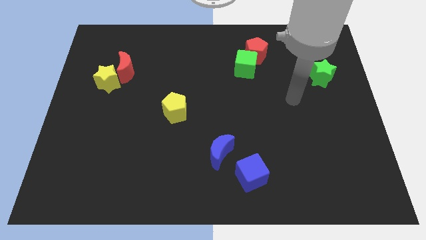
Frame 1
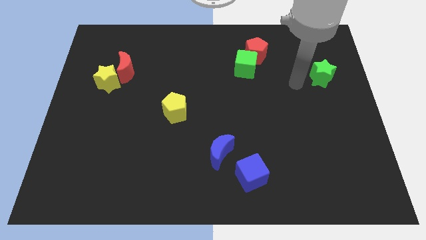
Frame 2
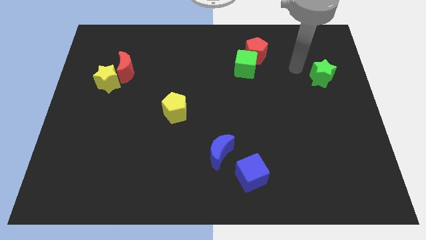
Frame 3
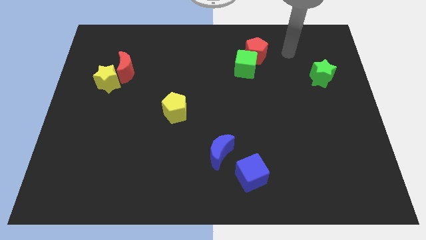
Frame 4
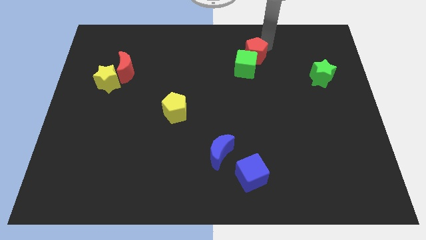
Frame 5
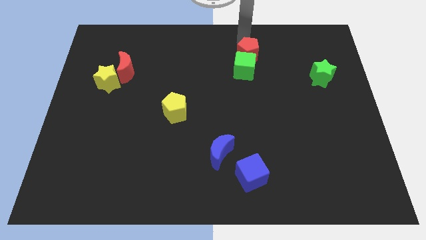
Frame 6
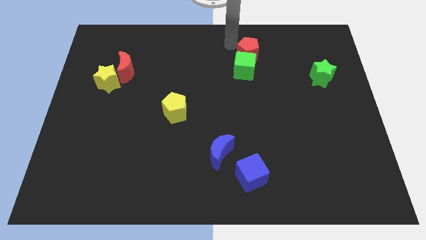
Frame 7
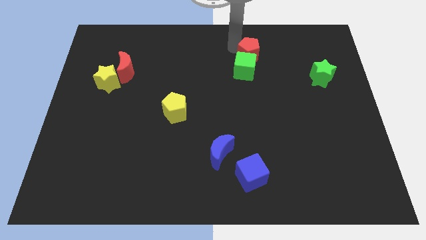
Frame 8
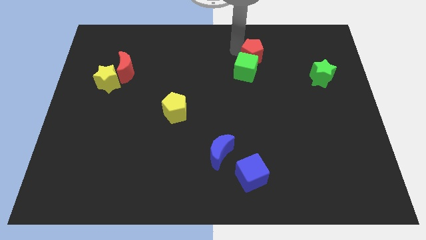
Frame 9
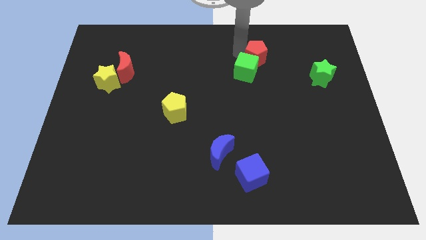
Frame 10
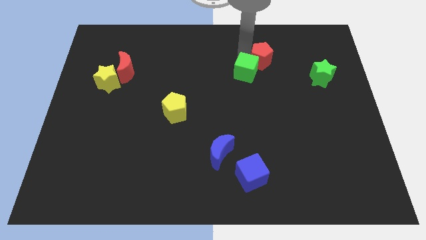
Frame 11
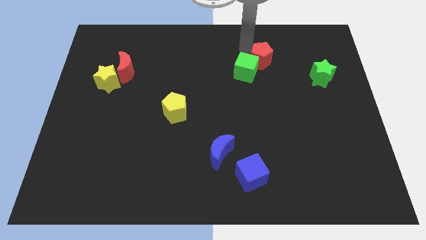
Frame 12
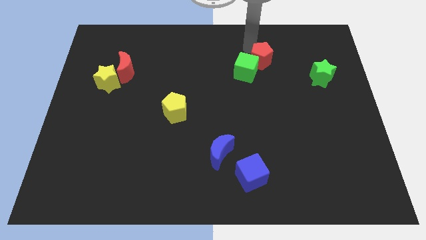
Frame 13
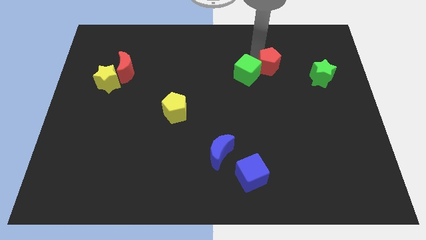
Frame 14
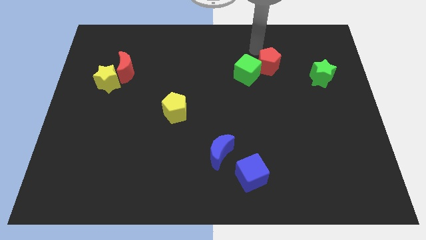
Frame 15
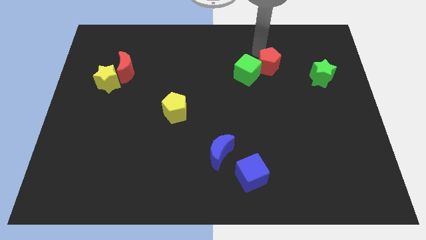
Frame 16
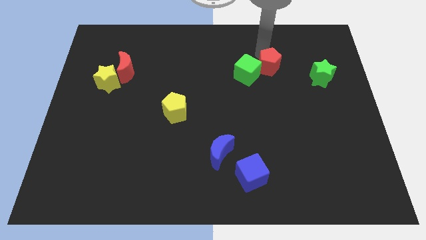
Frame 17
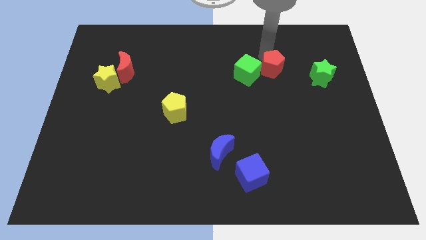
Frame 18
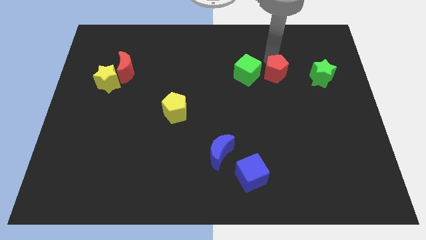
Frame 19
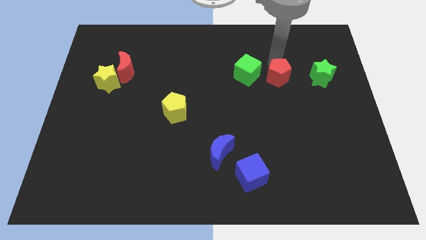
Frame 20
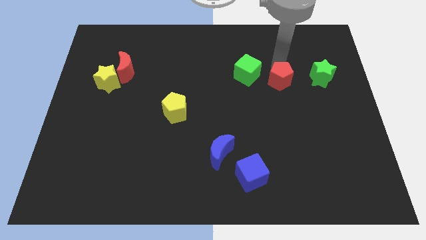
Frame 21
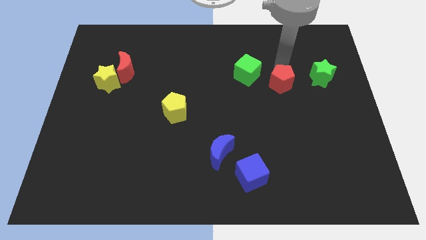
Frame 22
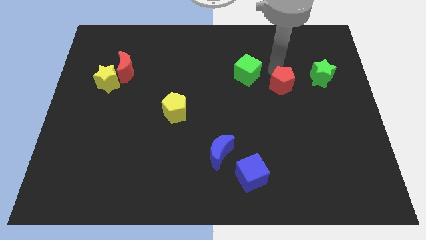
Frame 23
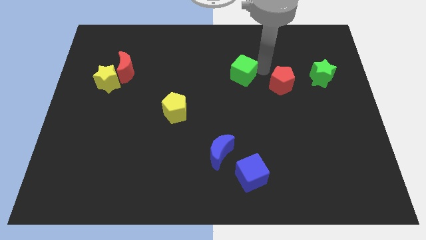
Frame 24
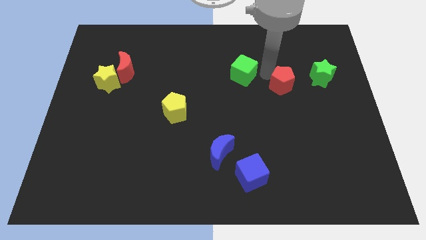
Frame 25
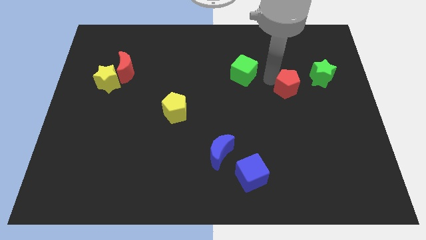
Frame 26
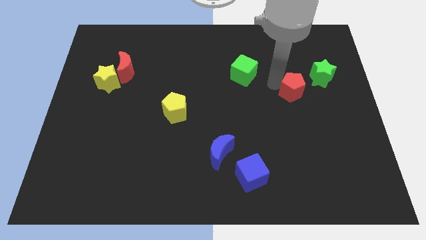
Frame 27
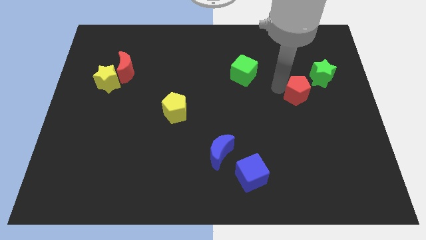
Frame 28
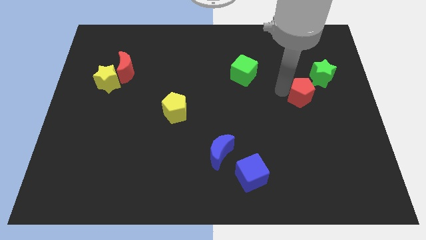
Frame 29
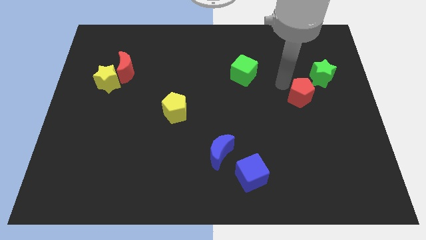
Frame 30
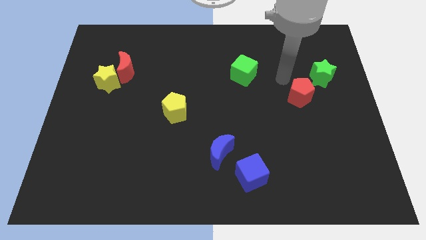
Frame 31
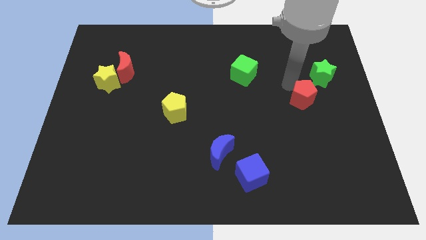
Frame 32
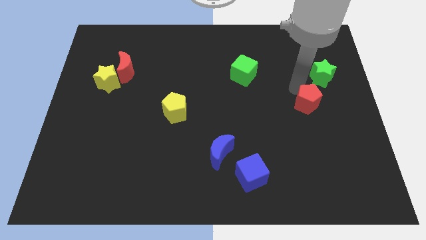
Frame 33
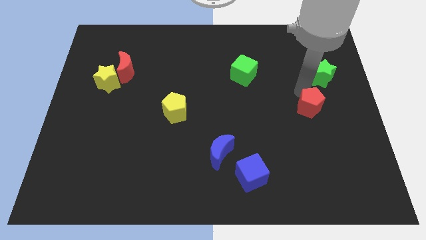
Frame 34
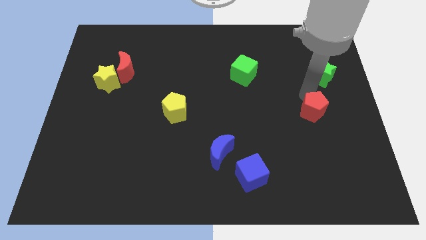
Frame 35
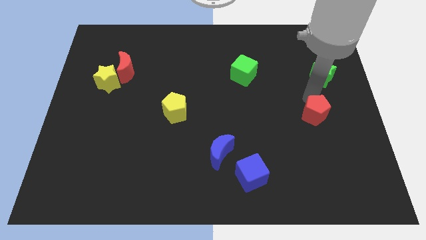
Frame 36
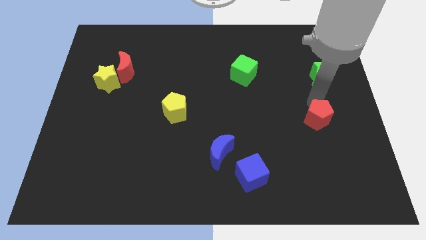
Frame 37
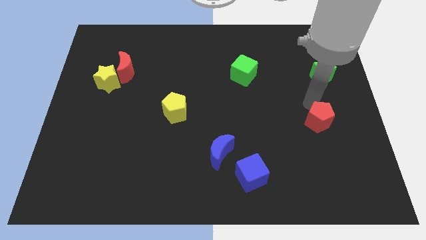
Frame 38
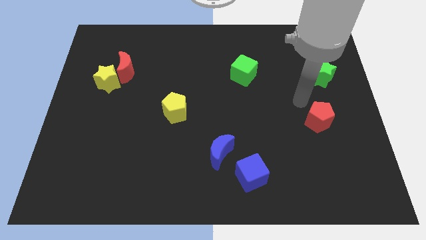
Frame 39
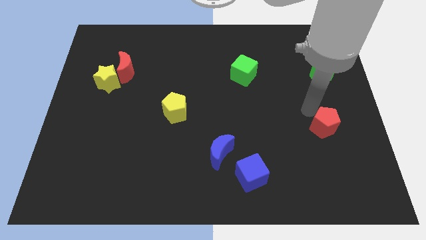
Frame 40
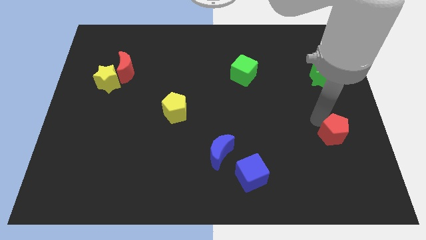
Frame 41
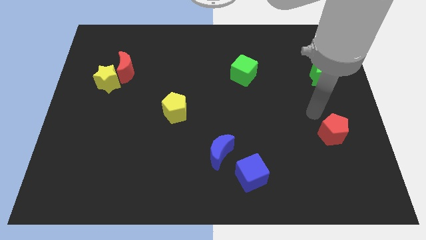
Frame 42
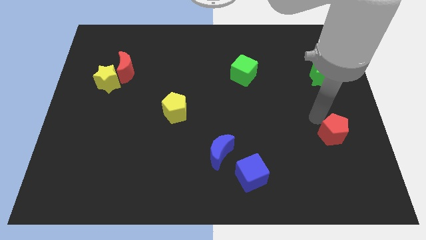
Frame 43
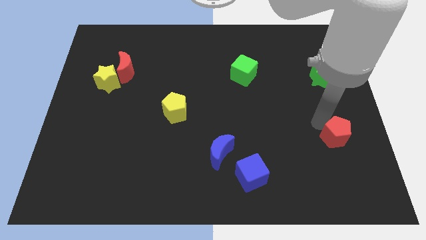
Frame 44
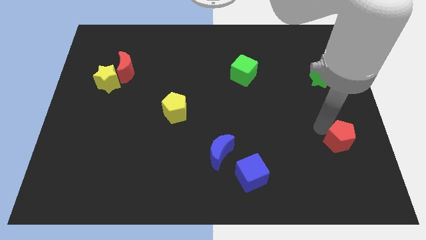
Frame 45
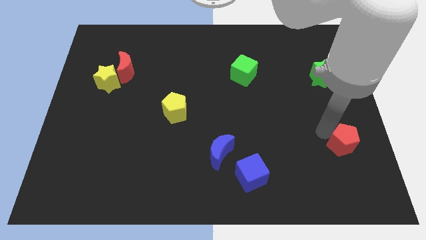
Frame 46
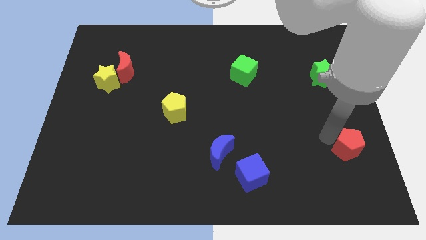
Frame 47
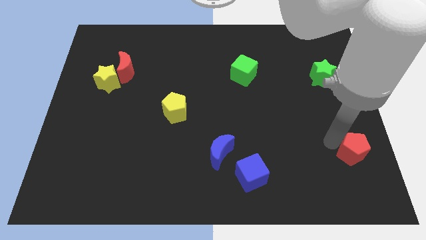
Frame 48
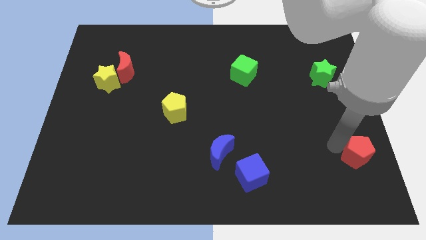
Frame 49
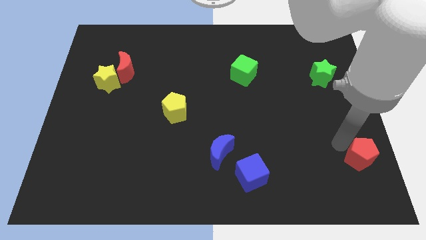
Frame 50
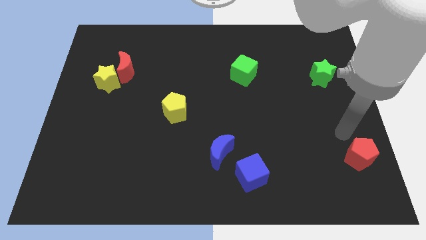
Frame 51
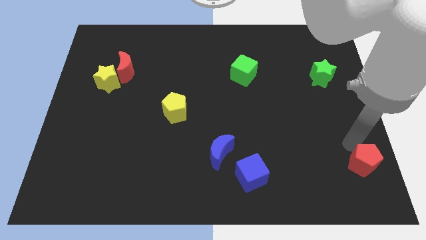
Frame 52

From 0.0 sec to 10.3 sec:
push the red pentagon to the lower right corner

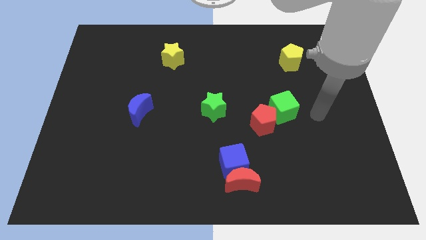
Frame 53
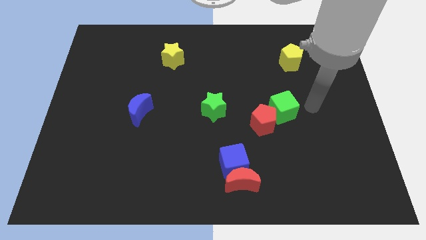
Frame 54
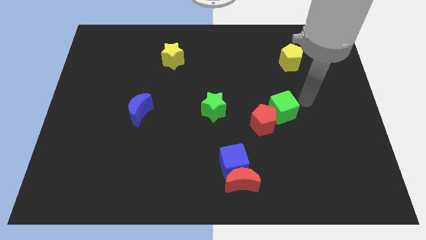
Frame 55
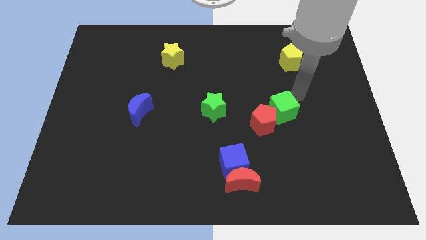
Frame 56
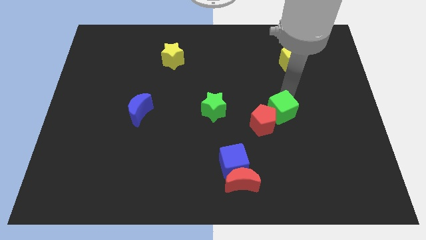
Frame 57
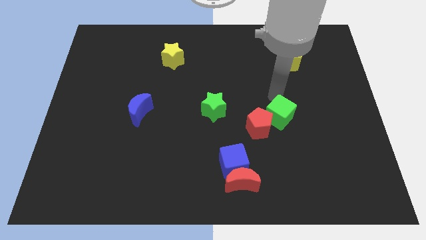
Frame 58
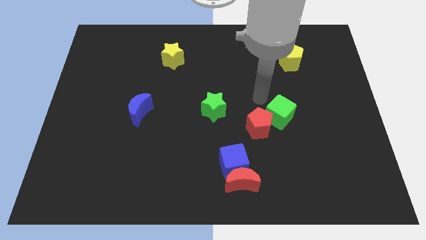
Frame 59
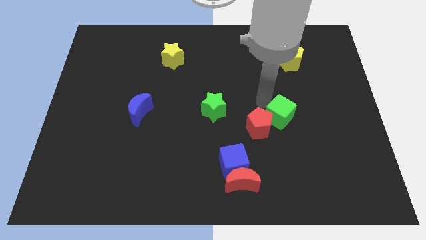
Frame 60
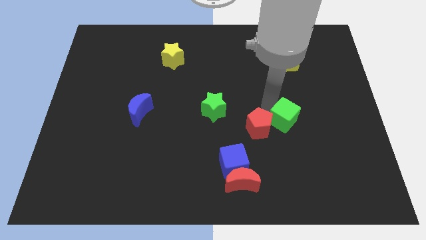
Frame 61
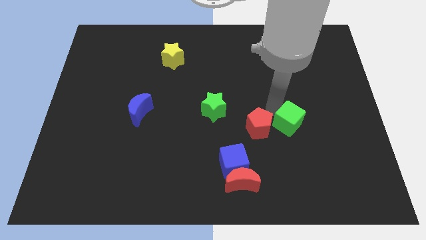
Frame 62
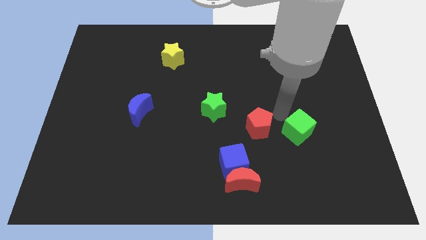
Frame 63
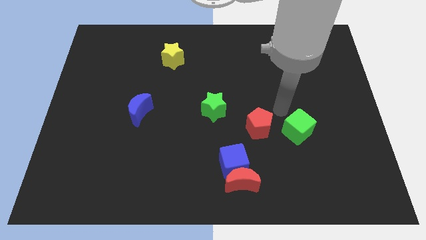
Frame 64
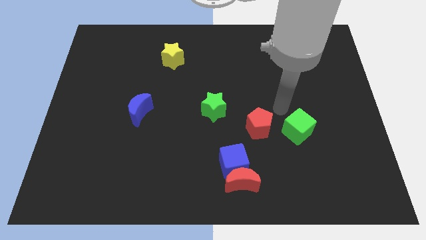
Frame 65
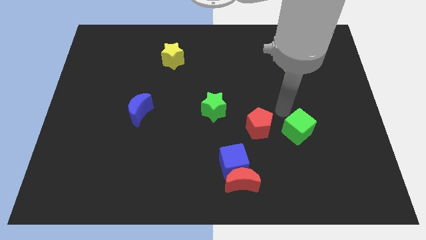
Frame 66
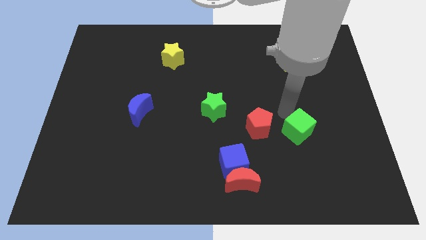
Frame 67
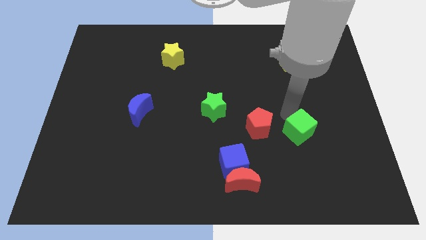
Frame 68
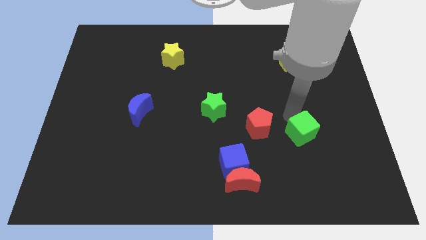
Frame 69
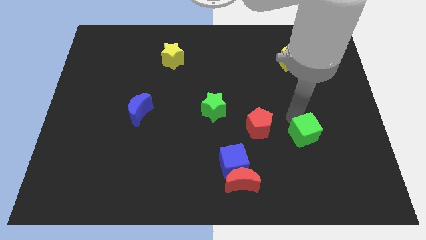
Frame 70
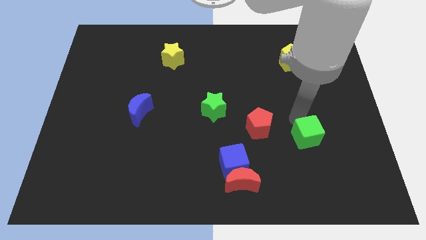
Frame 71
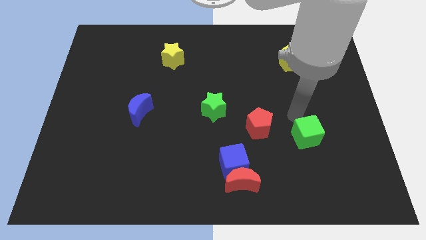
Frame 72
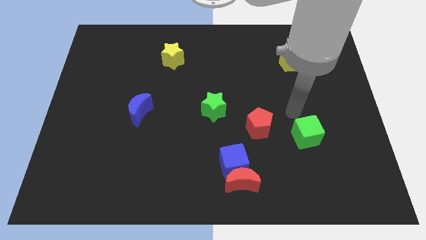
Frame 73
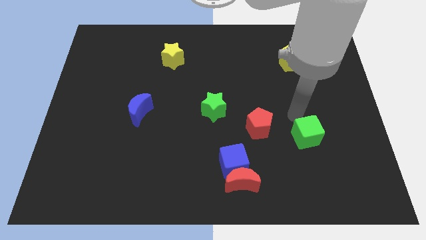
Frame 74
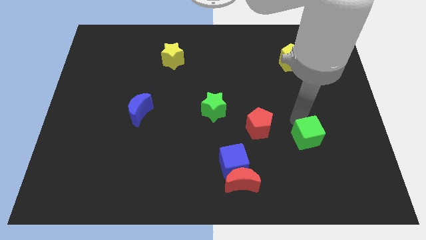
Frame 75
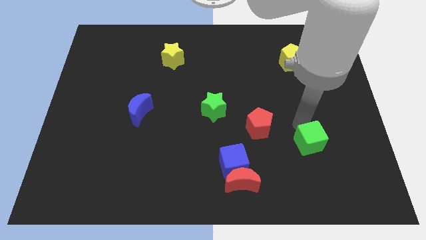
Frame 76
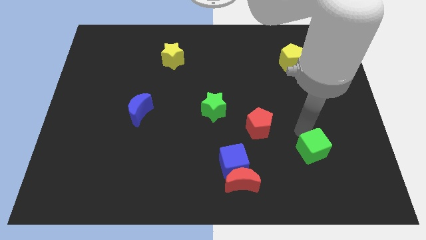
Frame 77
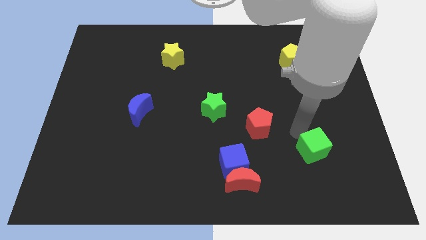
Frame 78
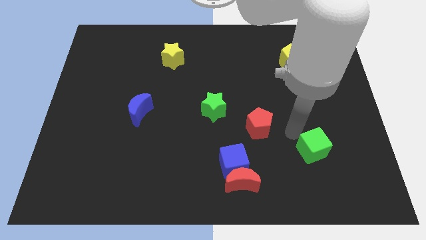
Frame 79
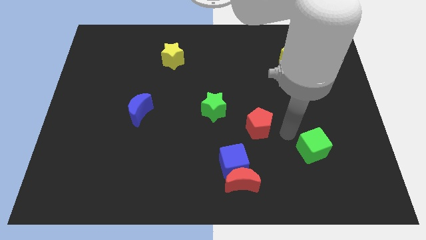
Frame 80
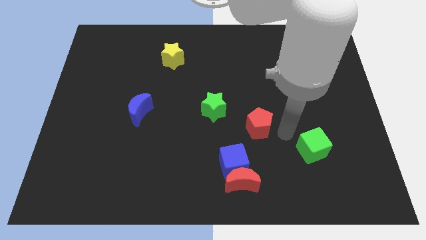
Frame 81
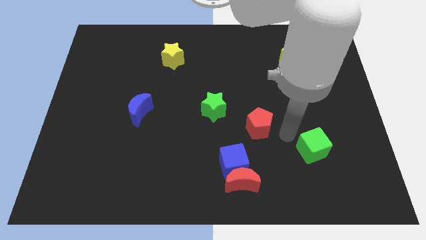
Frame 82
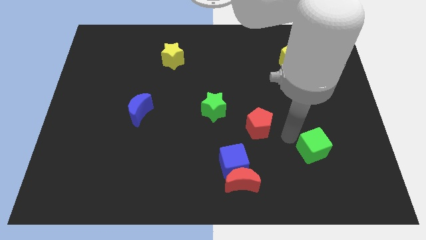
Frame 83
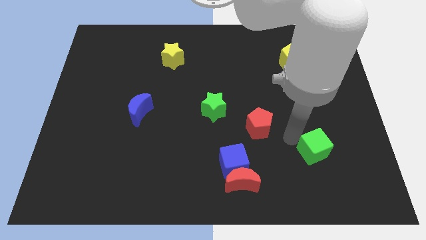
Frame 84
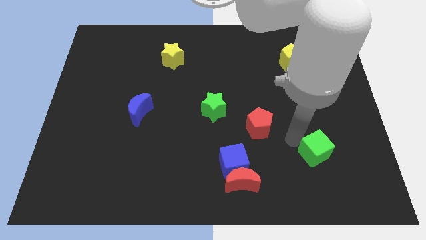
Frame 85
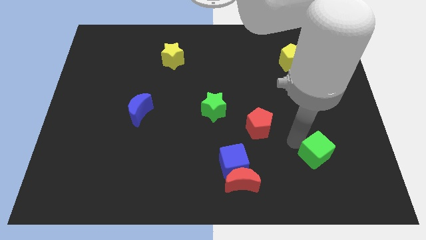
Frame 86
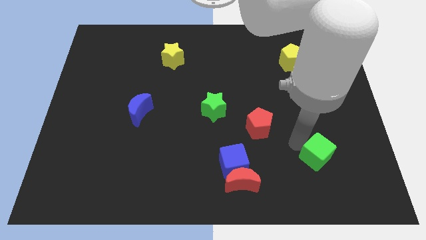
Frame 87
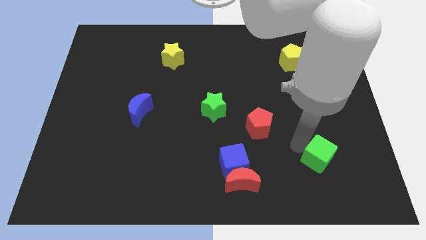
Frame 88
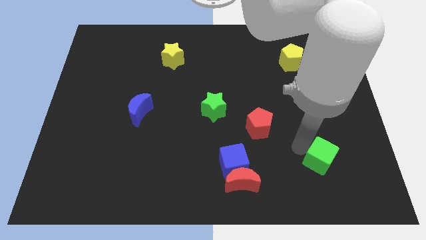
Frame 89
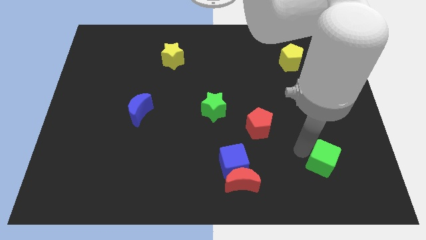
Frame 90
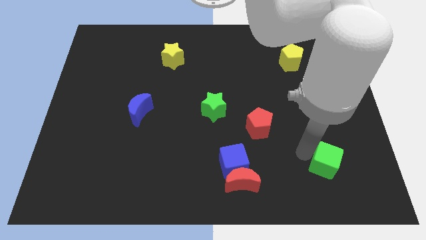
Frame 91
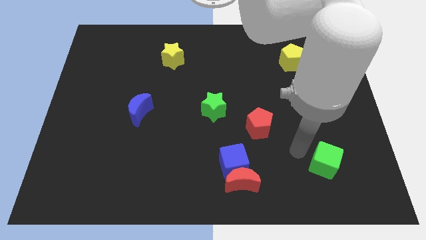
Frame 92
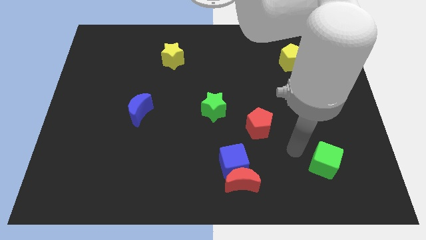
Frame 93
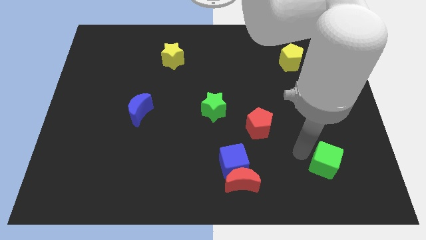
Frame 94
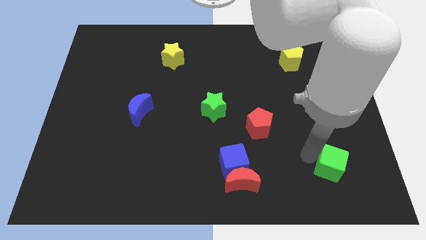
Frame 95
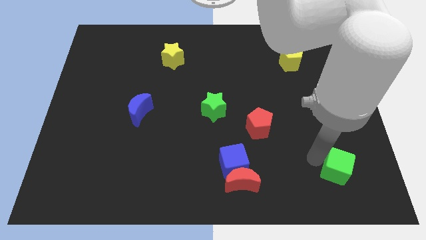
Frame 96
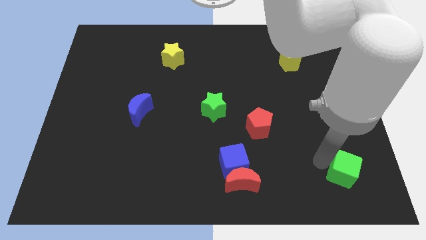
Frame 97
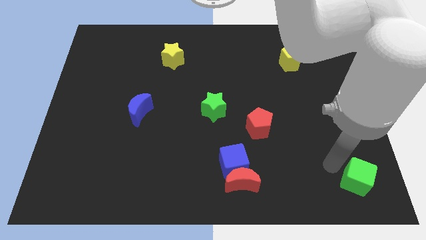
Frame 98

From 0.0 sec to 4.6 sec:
put the green cube to the lower right corner
